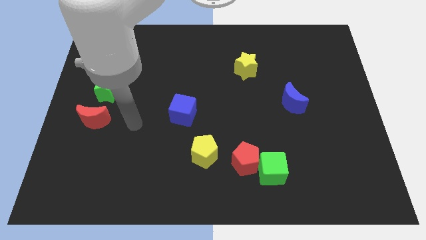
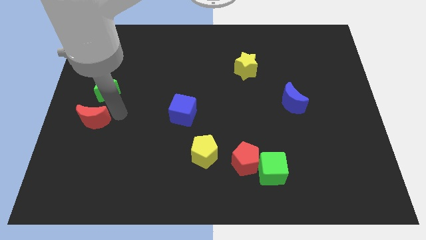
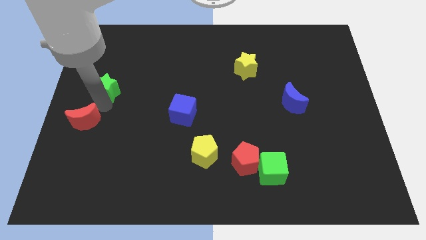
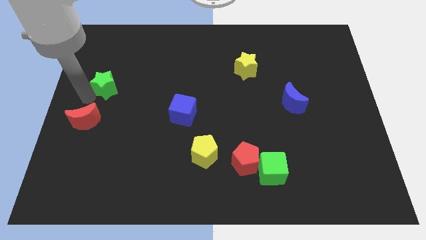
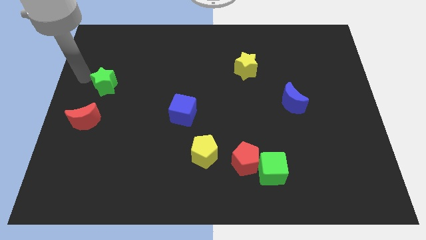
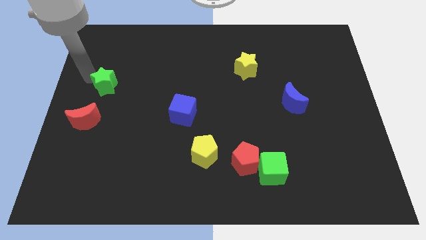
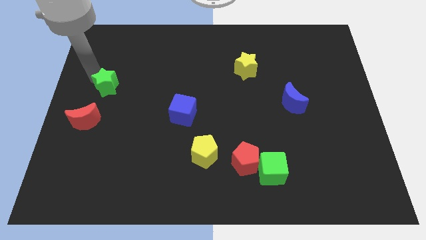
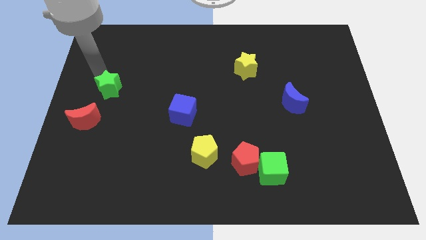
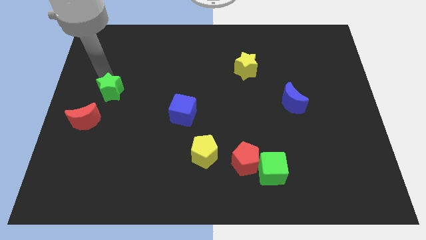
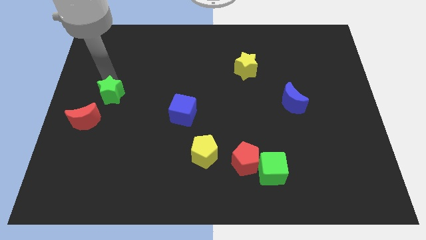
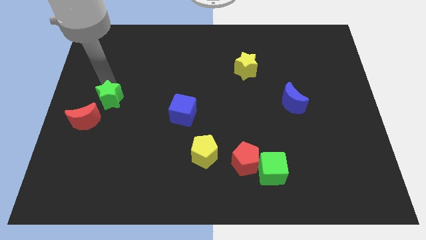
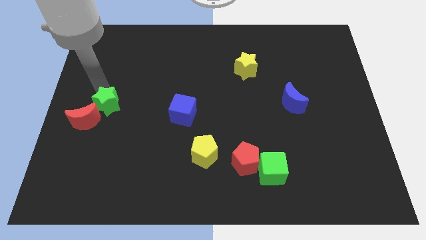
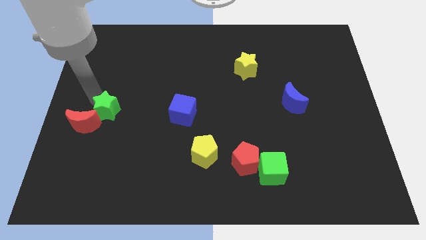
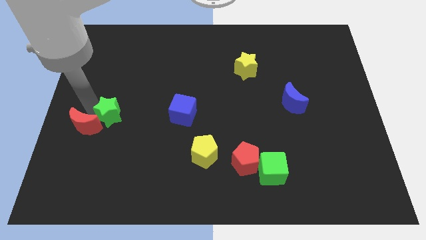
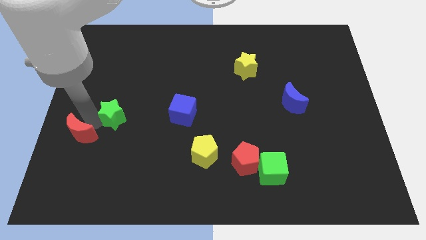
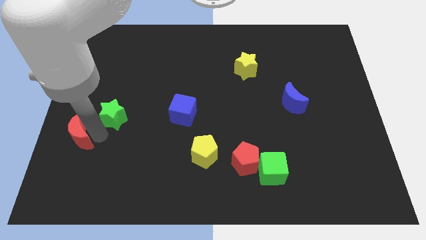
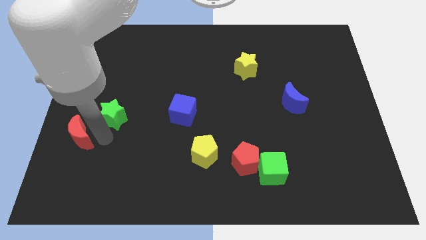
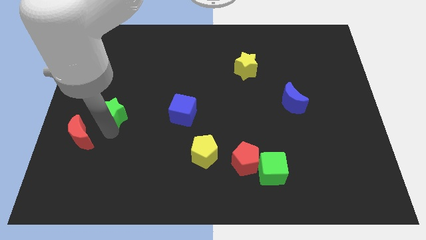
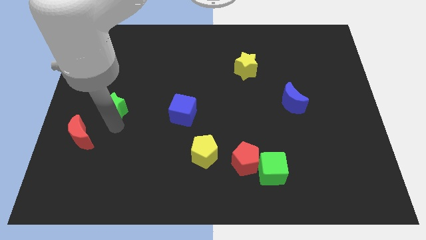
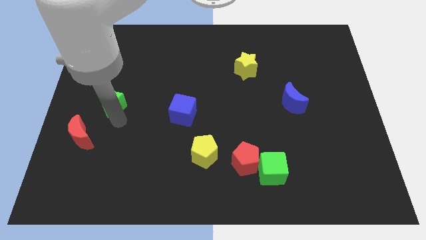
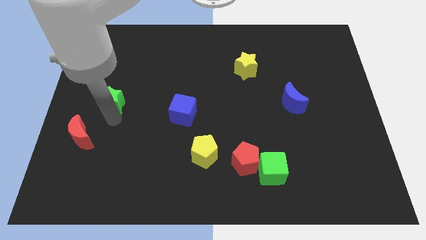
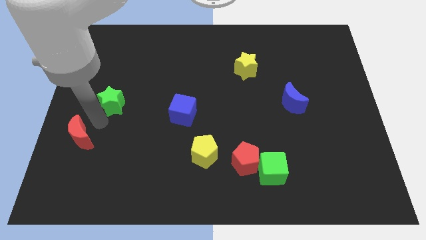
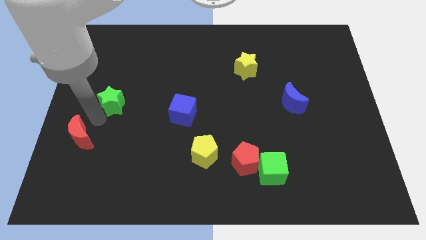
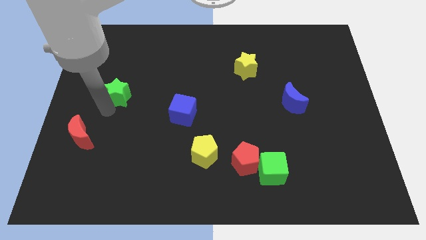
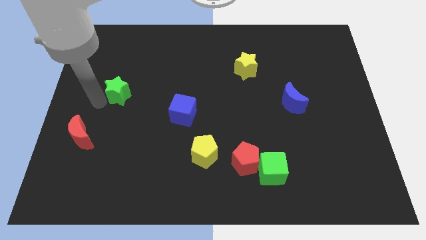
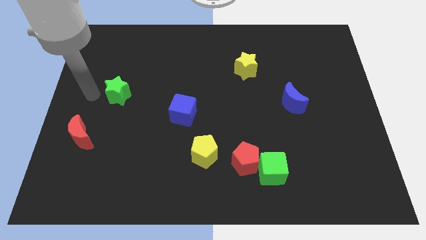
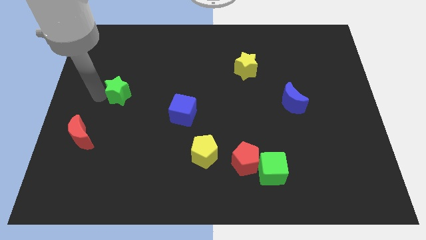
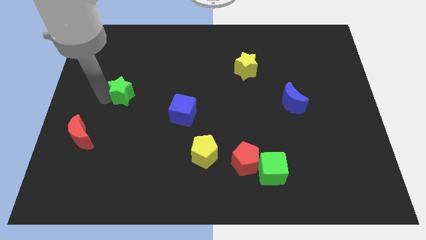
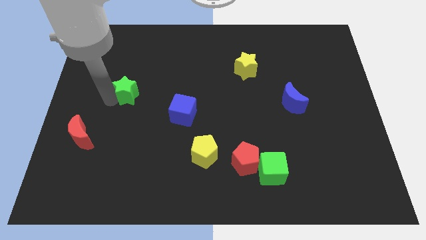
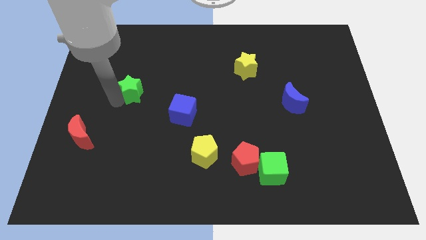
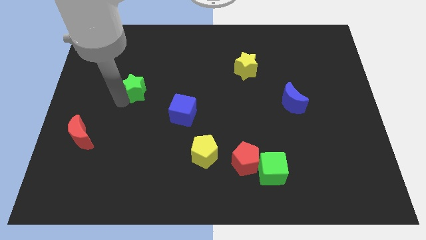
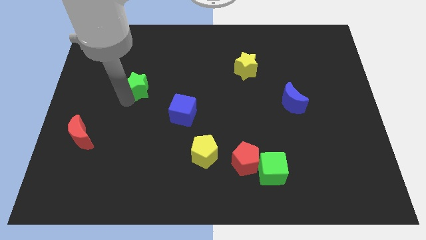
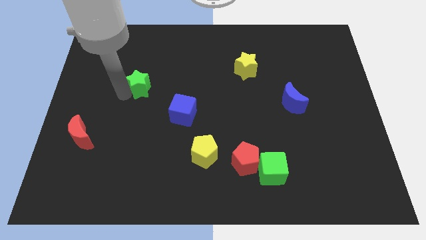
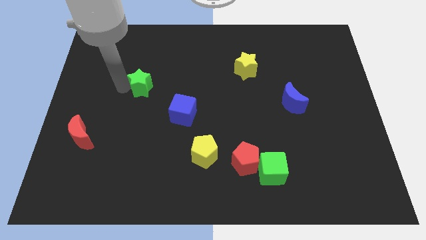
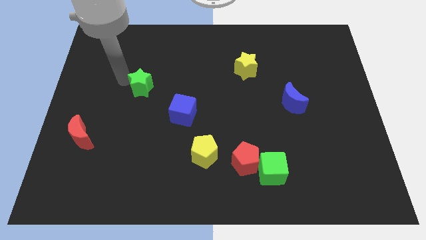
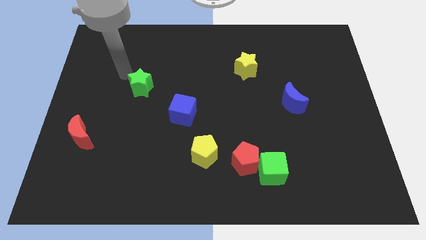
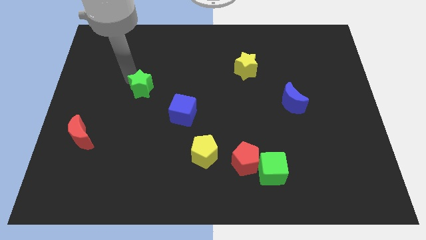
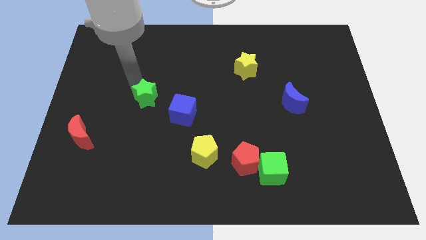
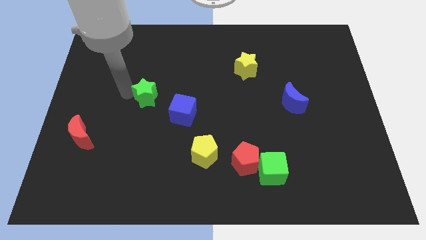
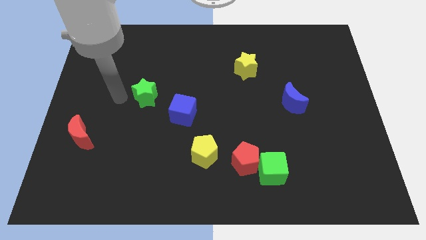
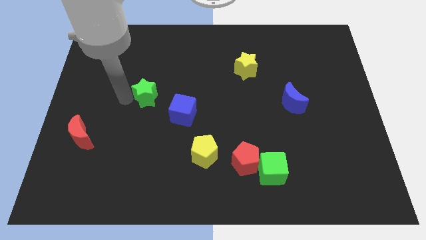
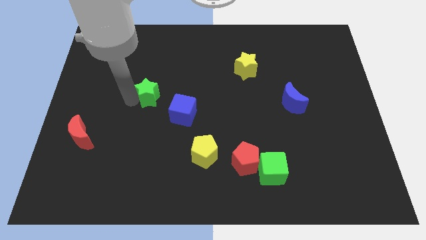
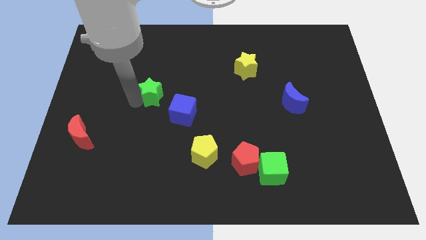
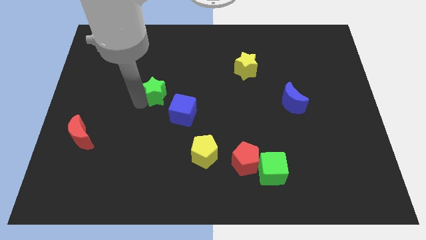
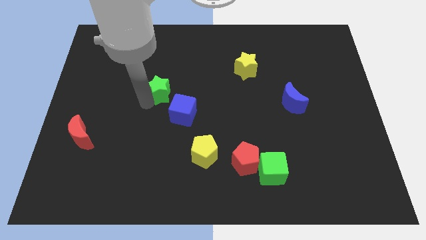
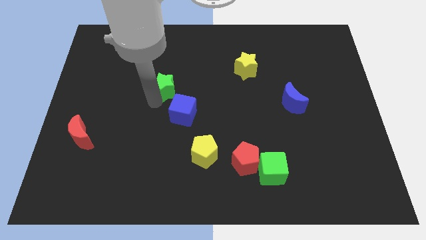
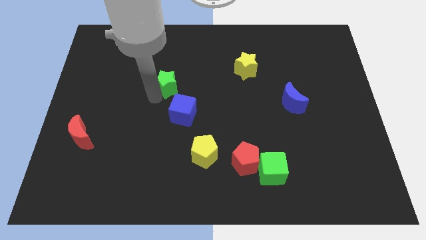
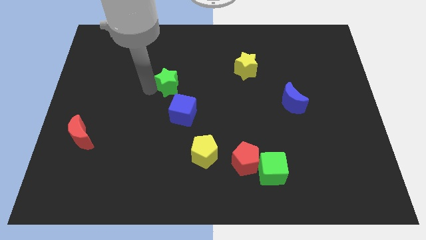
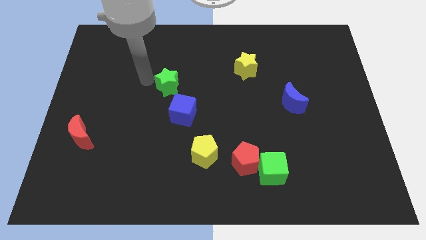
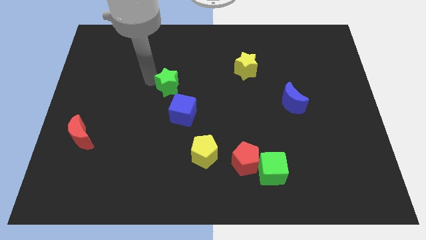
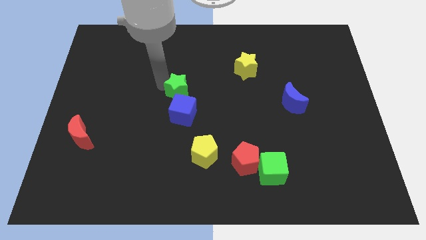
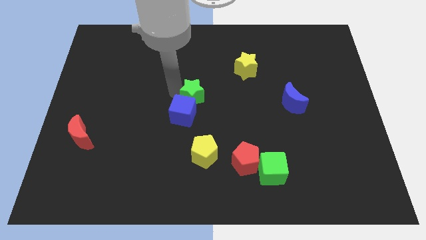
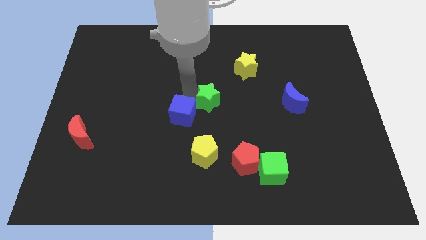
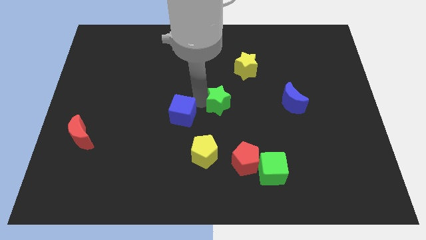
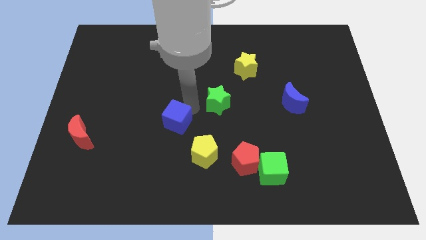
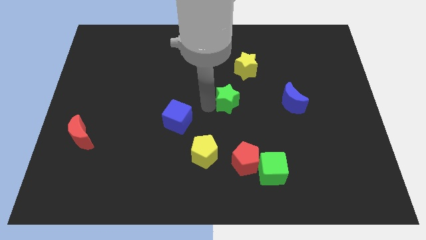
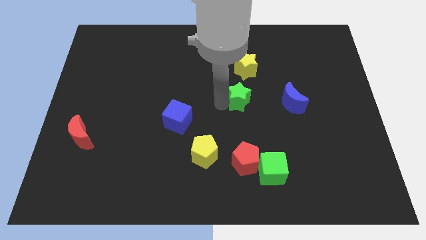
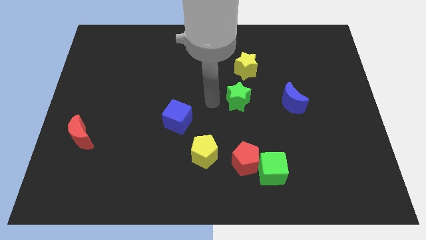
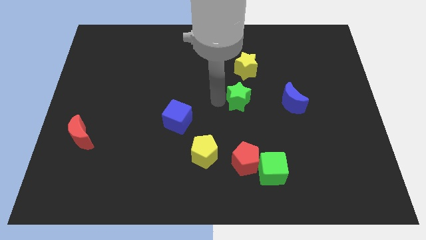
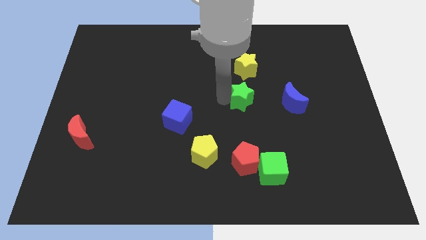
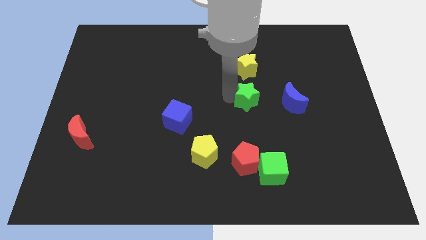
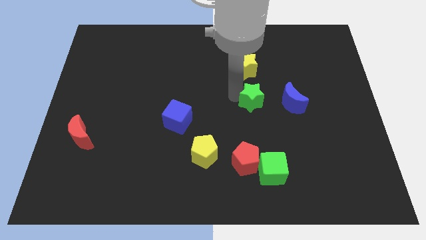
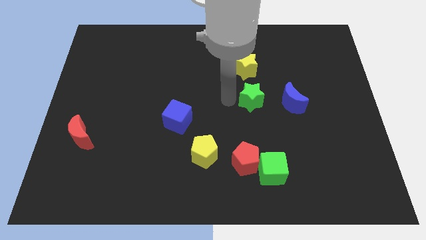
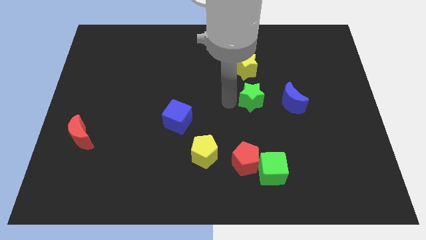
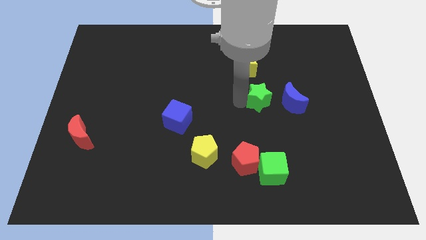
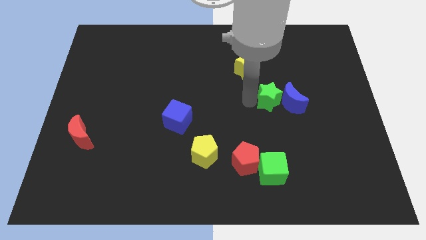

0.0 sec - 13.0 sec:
slide the green star to the blue moon

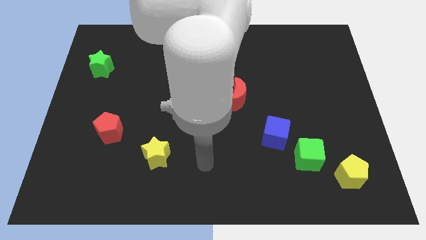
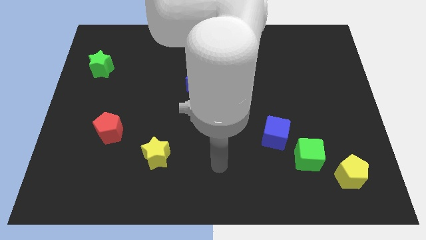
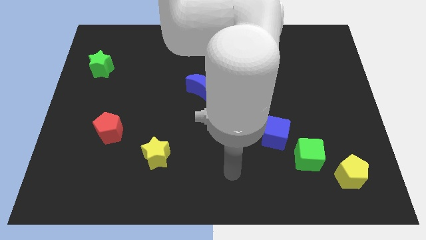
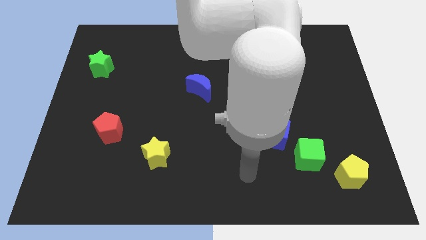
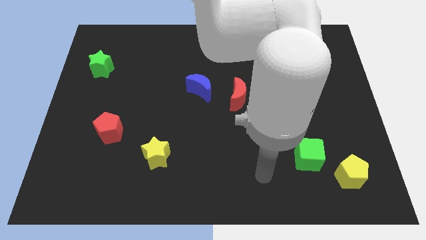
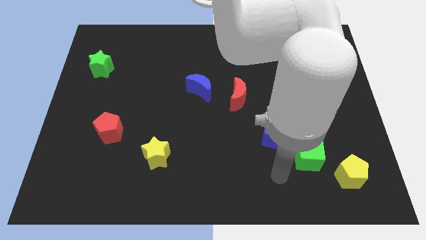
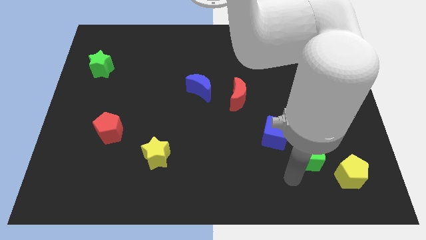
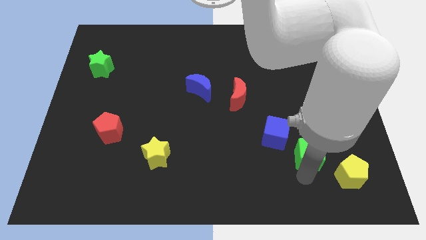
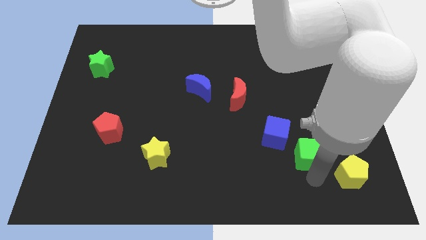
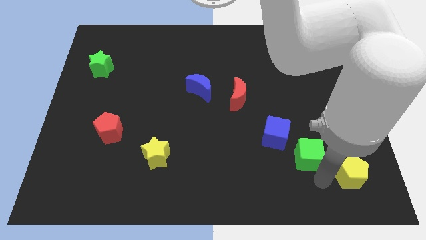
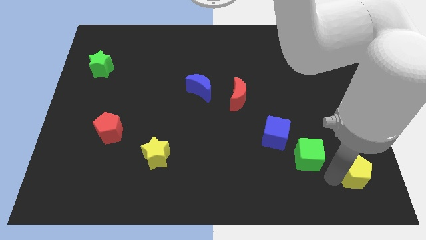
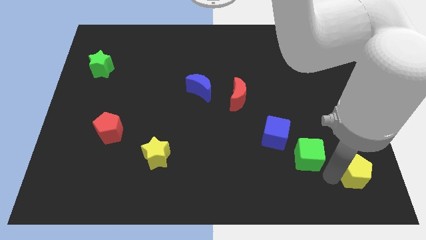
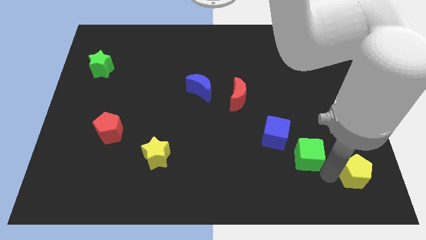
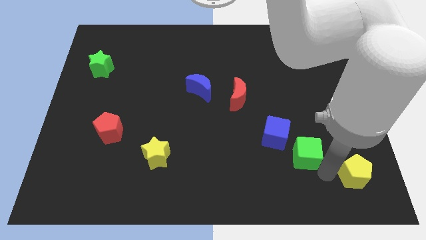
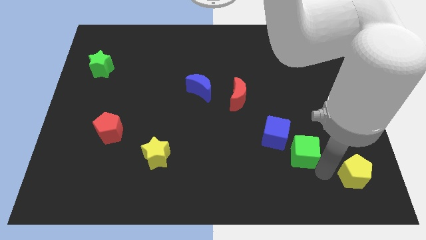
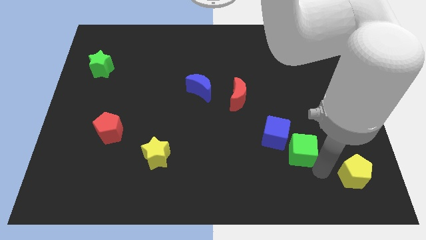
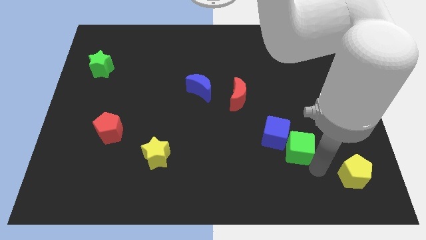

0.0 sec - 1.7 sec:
put the green cube towards the blue cube
